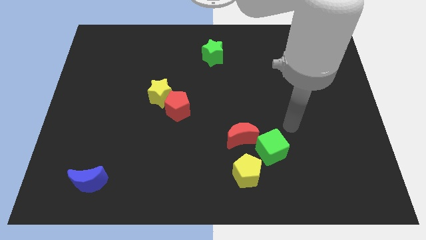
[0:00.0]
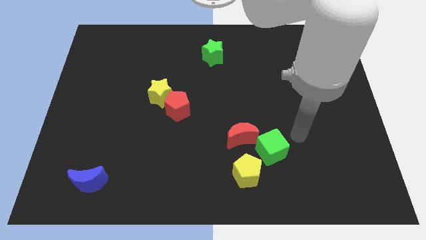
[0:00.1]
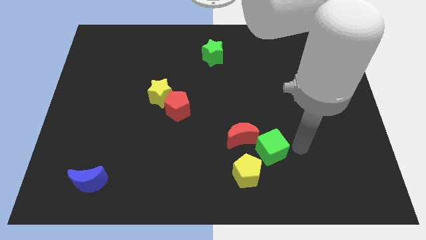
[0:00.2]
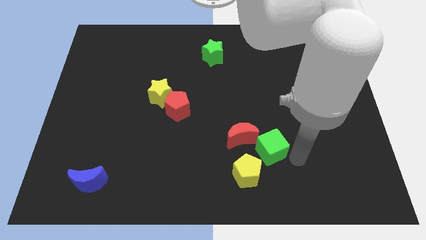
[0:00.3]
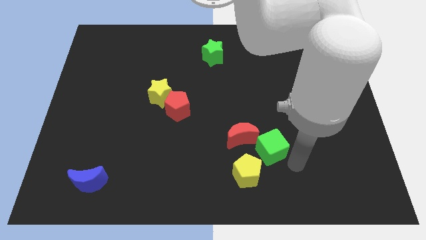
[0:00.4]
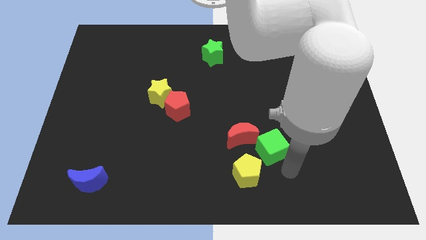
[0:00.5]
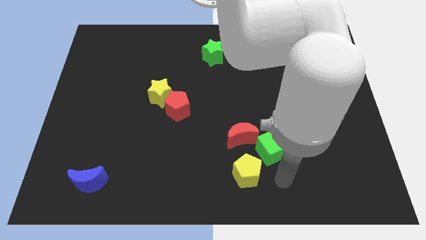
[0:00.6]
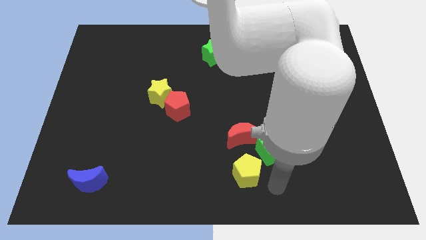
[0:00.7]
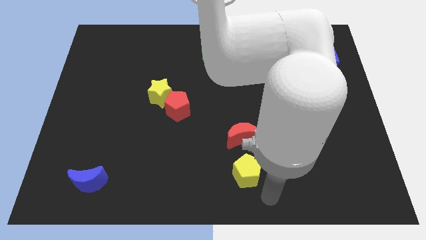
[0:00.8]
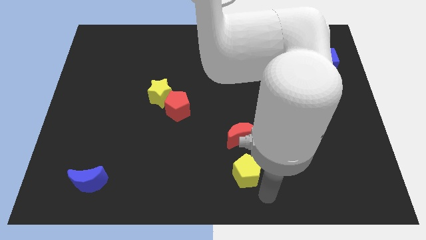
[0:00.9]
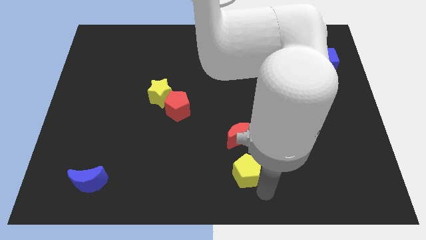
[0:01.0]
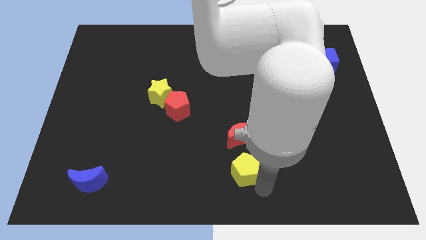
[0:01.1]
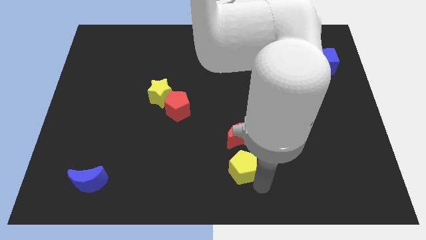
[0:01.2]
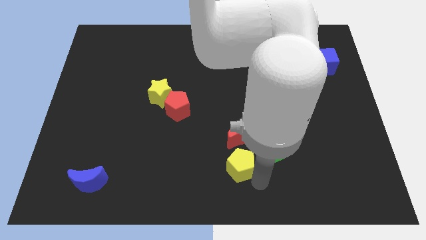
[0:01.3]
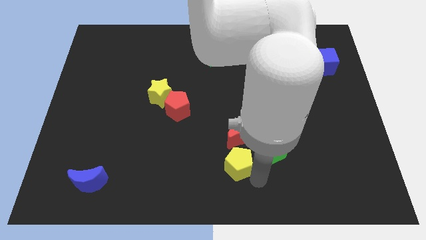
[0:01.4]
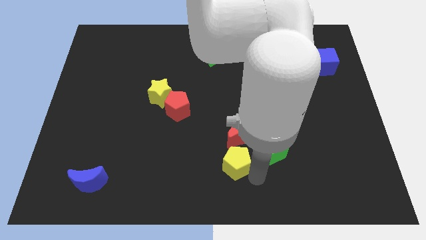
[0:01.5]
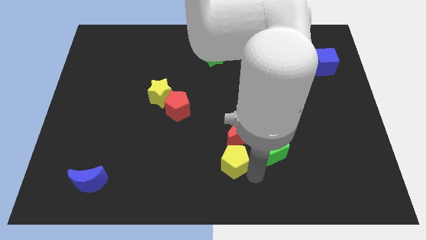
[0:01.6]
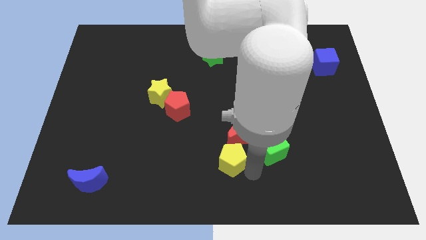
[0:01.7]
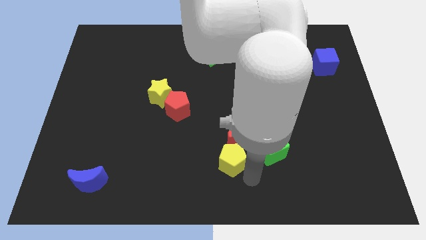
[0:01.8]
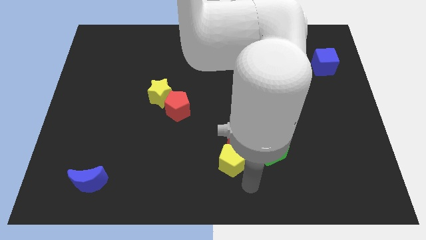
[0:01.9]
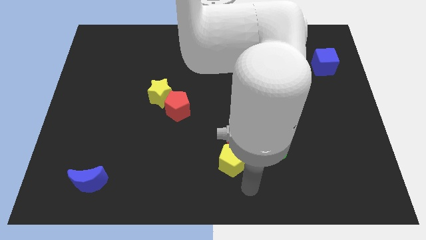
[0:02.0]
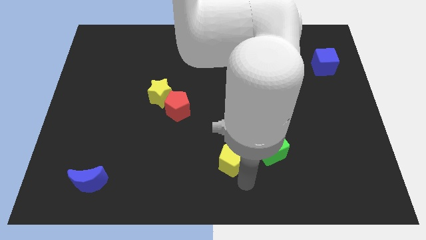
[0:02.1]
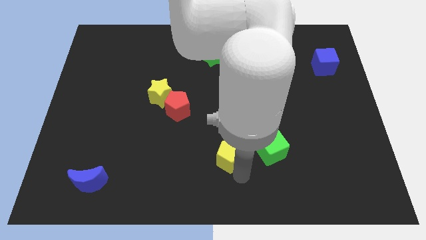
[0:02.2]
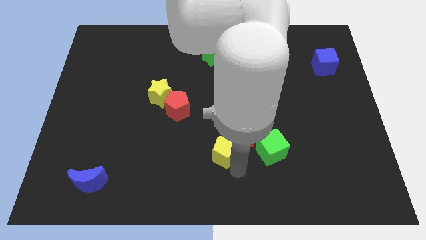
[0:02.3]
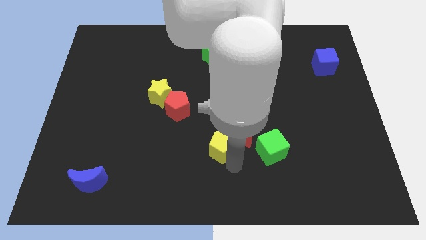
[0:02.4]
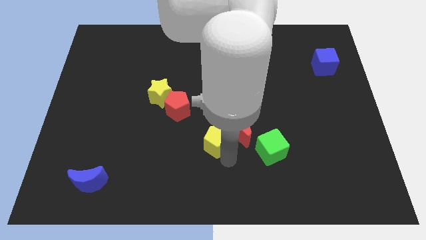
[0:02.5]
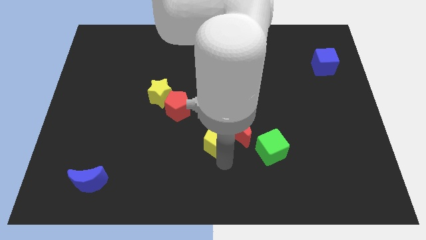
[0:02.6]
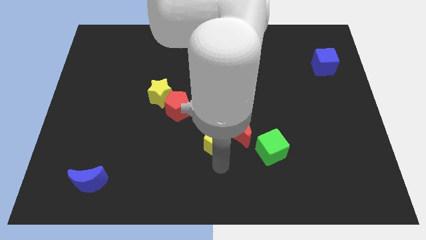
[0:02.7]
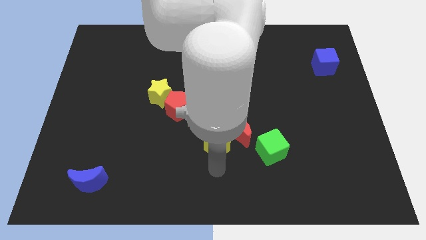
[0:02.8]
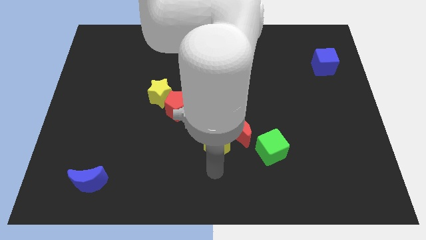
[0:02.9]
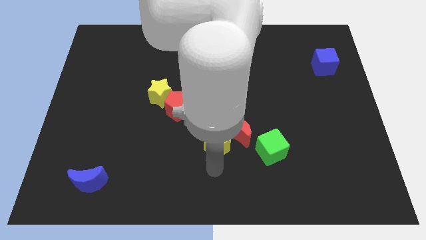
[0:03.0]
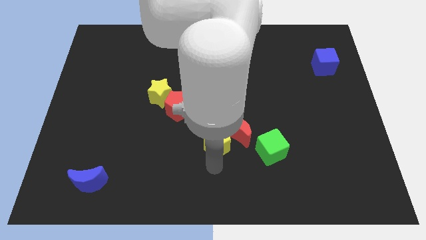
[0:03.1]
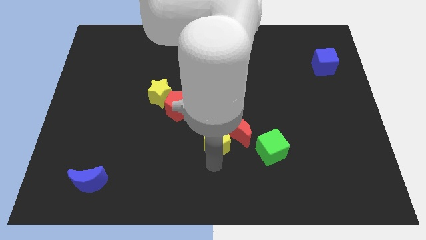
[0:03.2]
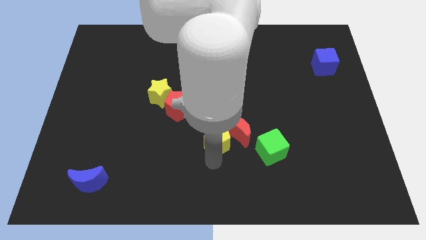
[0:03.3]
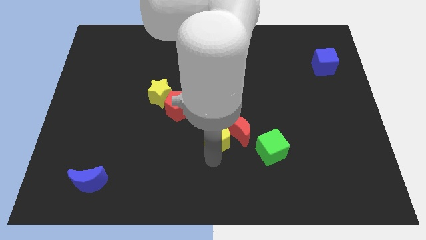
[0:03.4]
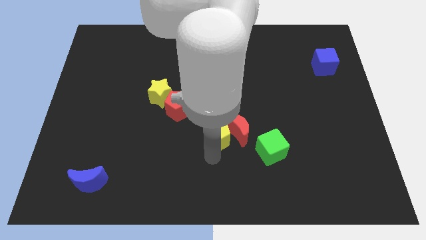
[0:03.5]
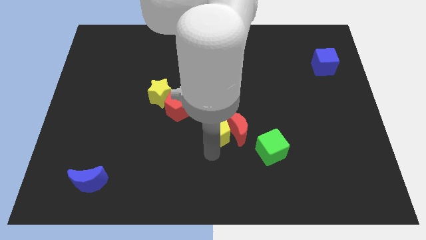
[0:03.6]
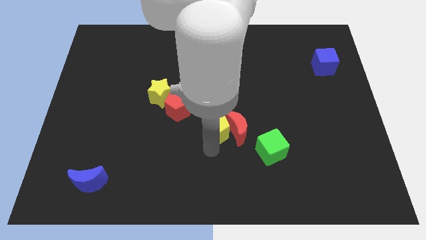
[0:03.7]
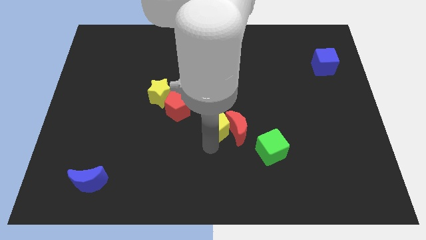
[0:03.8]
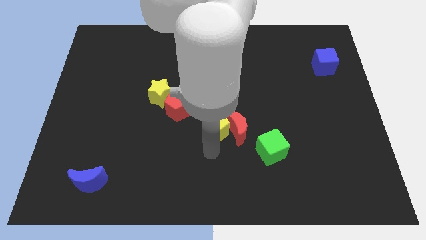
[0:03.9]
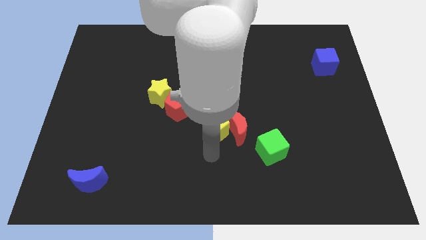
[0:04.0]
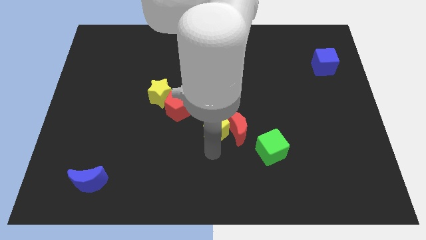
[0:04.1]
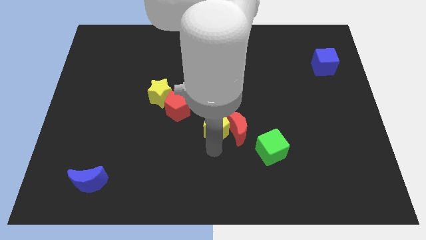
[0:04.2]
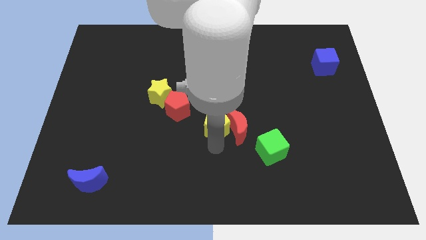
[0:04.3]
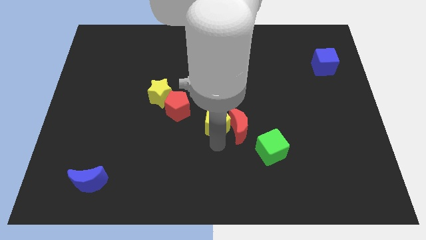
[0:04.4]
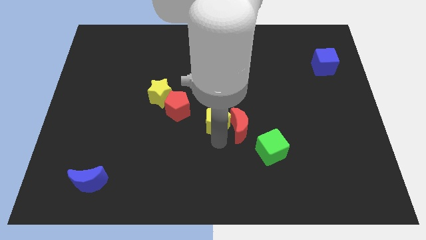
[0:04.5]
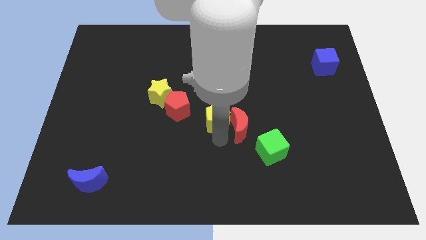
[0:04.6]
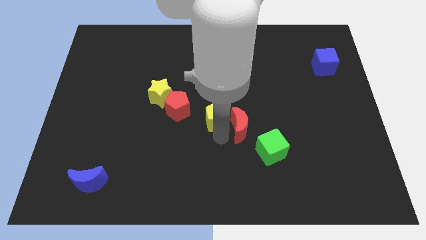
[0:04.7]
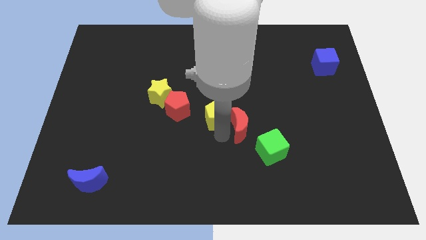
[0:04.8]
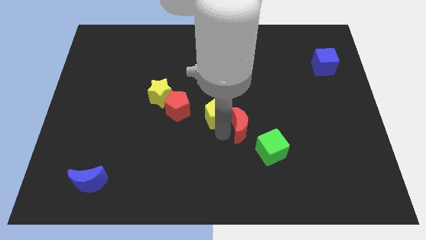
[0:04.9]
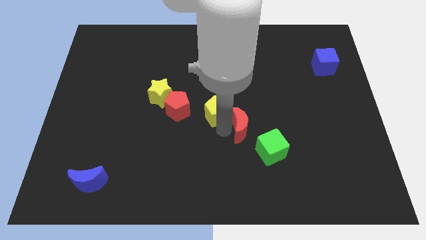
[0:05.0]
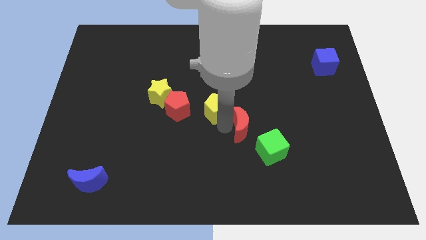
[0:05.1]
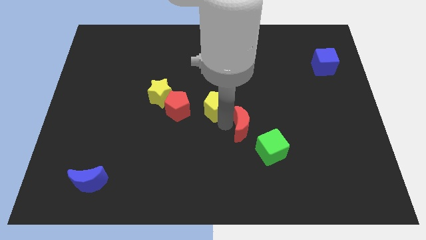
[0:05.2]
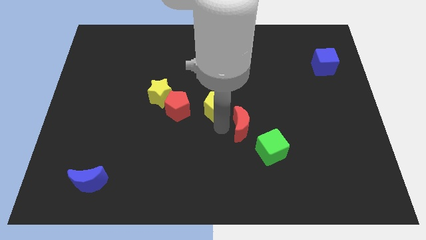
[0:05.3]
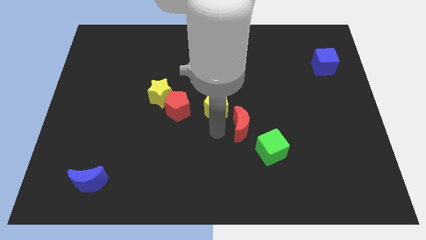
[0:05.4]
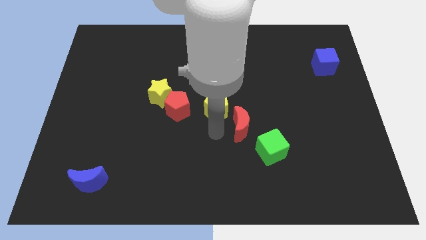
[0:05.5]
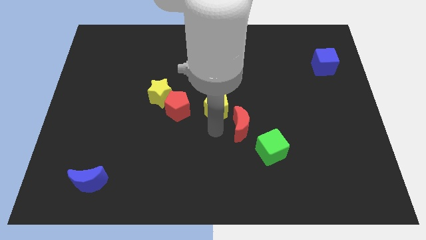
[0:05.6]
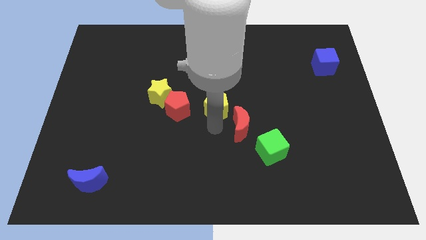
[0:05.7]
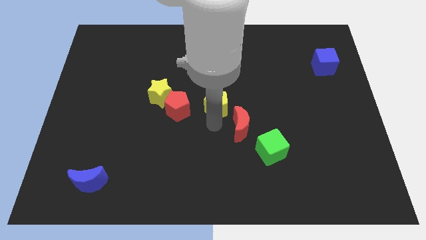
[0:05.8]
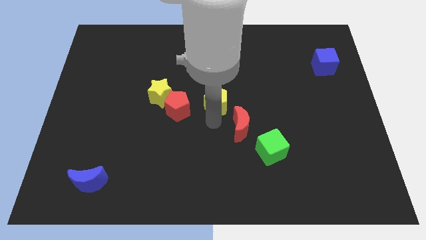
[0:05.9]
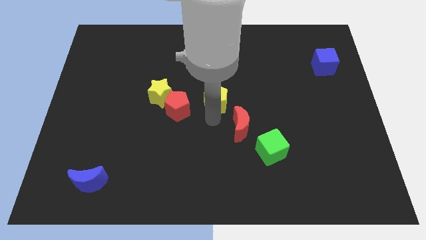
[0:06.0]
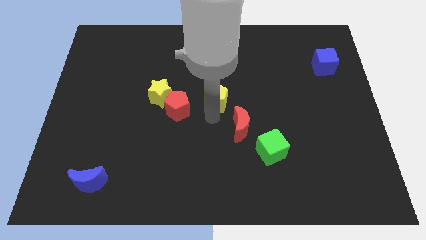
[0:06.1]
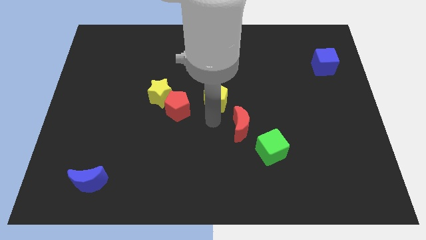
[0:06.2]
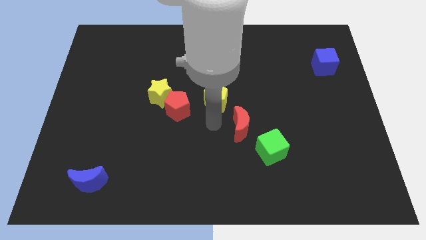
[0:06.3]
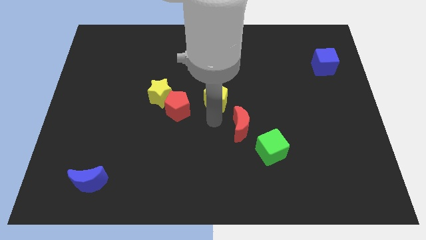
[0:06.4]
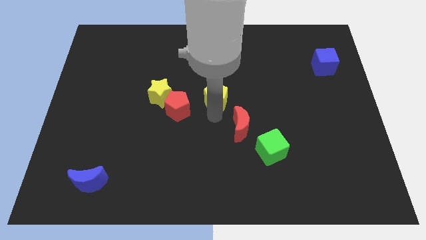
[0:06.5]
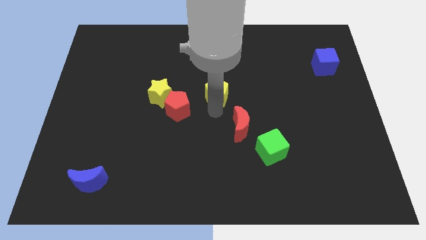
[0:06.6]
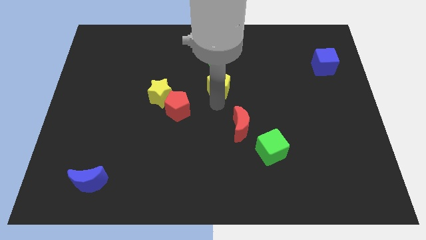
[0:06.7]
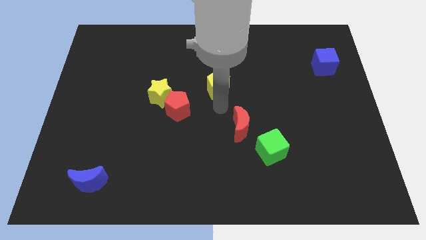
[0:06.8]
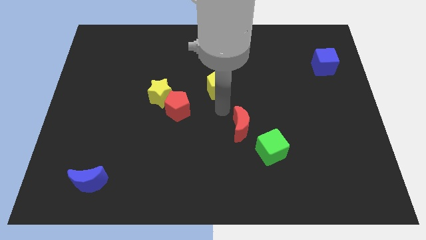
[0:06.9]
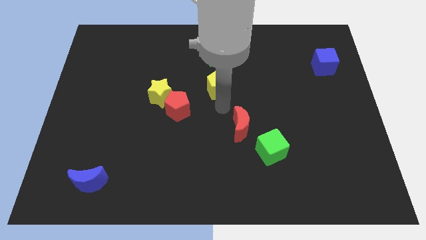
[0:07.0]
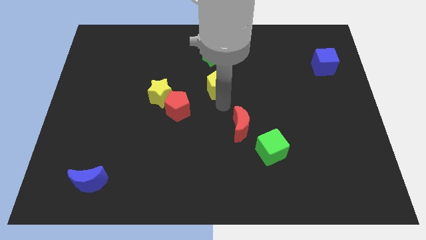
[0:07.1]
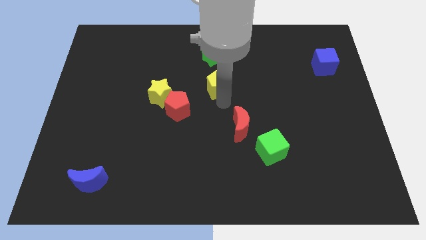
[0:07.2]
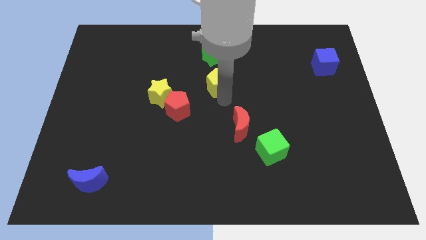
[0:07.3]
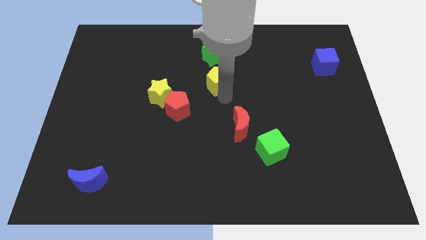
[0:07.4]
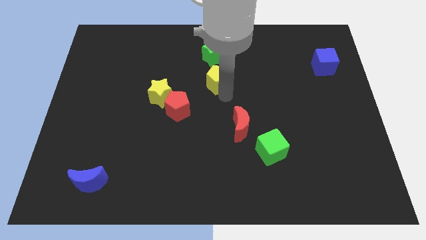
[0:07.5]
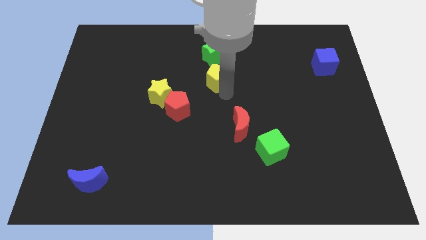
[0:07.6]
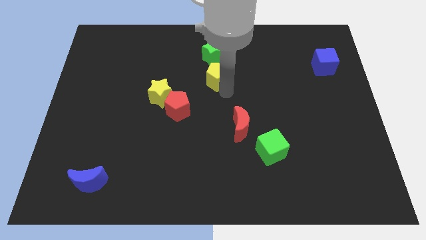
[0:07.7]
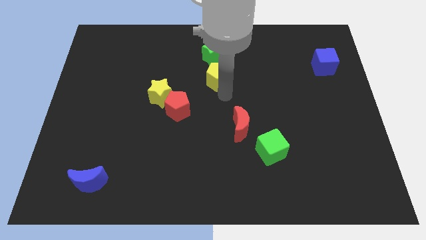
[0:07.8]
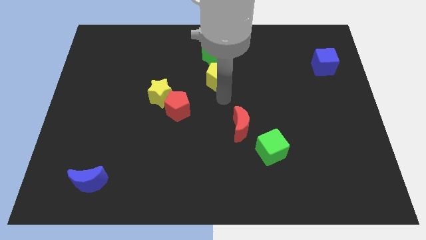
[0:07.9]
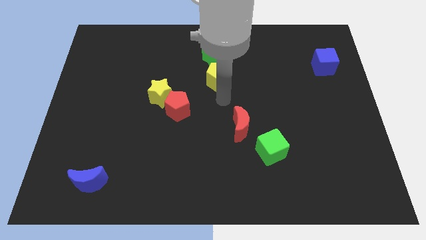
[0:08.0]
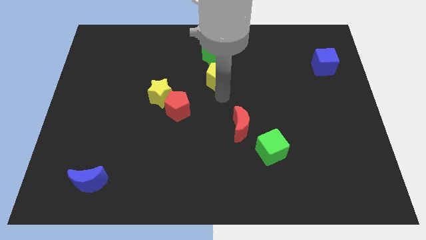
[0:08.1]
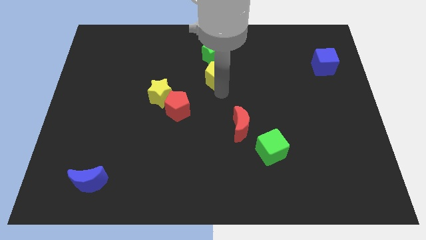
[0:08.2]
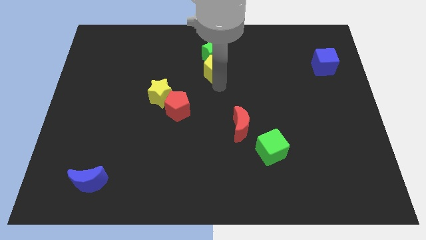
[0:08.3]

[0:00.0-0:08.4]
move the yellow pentagon close to the green star
